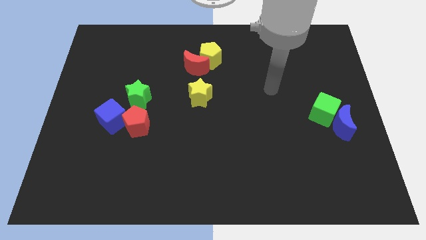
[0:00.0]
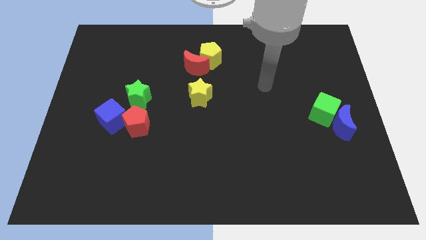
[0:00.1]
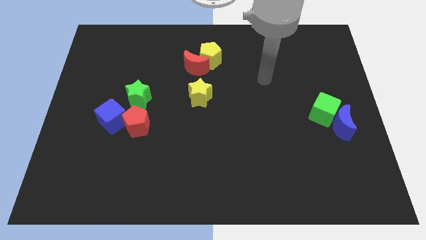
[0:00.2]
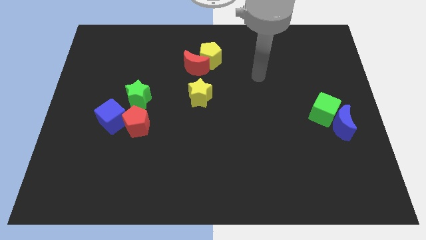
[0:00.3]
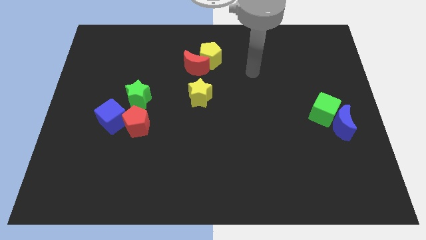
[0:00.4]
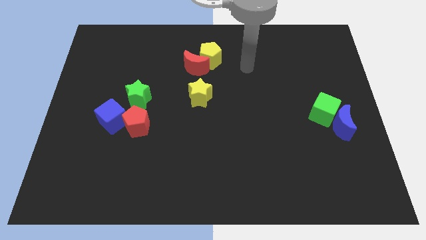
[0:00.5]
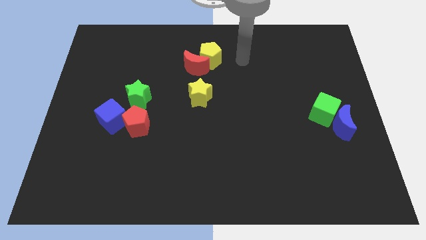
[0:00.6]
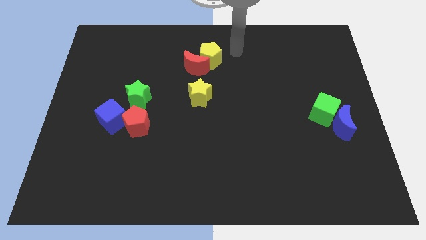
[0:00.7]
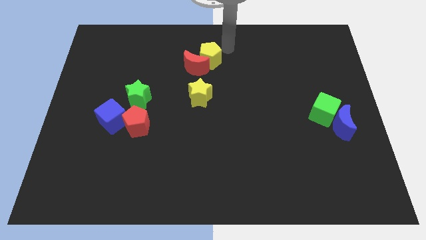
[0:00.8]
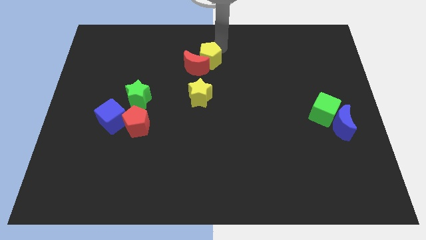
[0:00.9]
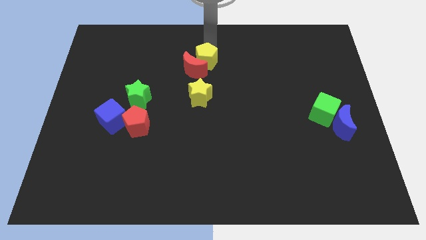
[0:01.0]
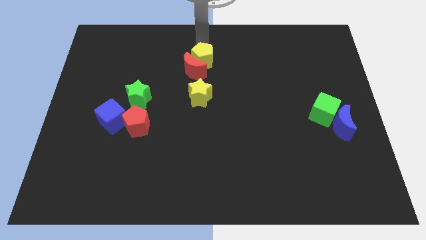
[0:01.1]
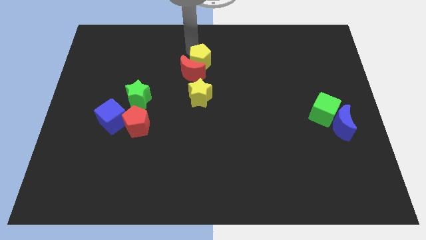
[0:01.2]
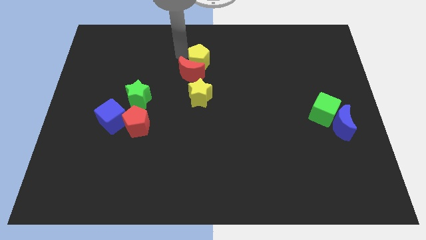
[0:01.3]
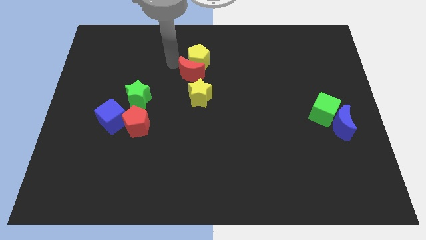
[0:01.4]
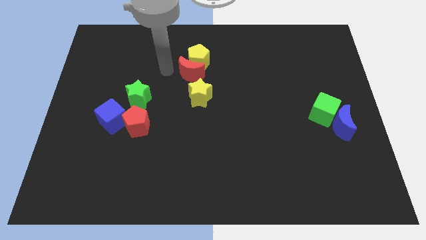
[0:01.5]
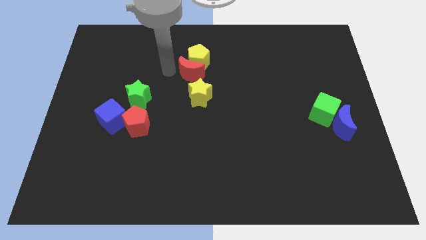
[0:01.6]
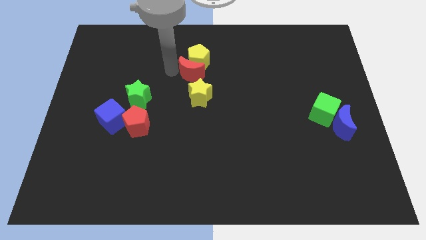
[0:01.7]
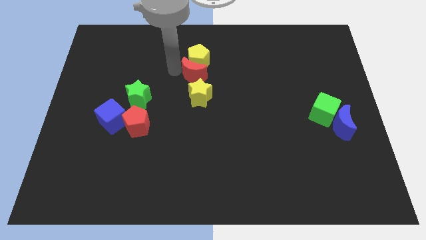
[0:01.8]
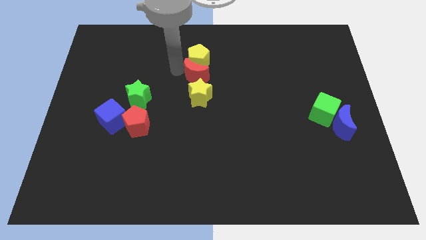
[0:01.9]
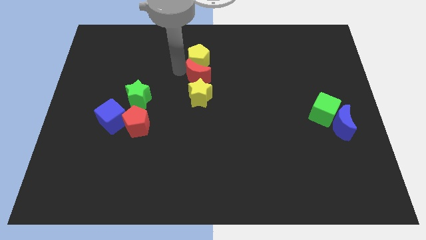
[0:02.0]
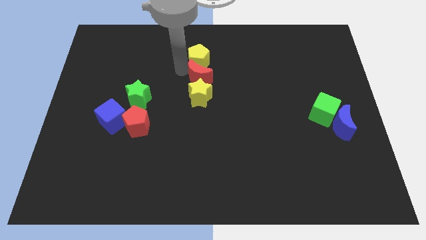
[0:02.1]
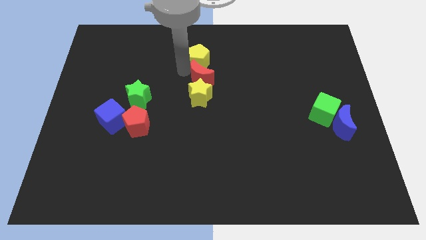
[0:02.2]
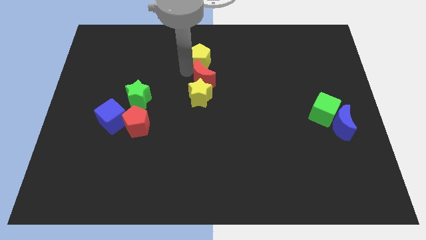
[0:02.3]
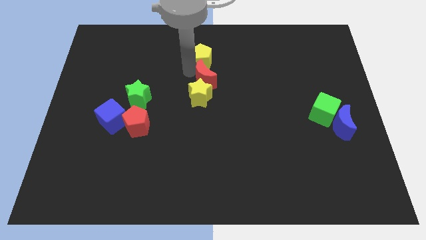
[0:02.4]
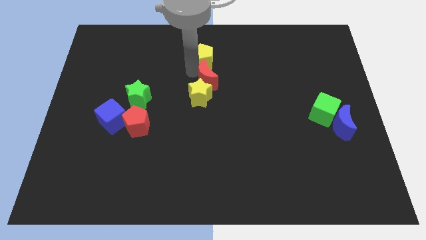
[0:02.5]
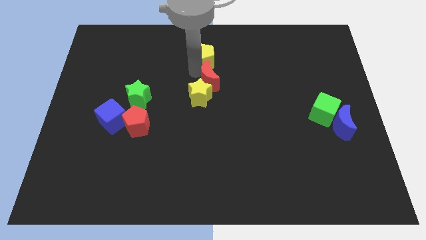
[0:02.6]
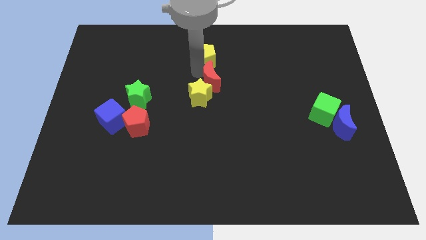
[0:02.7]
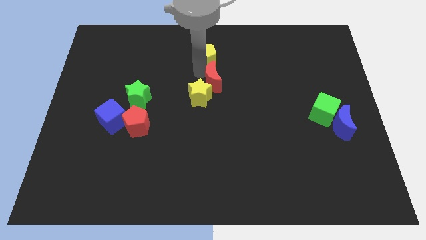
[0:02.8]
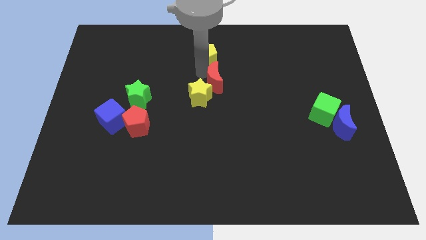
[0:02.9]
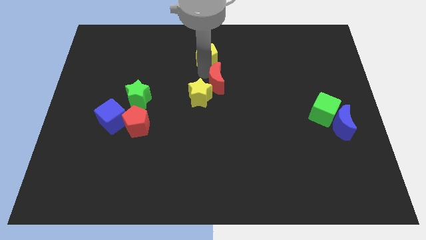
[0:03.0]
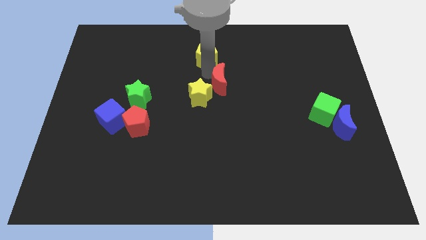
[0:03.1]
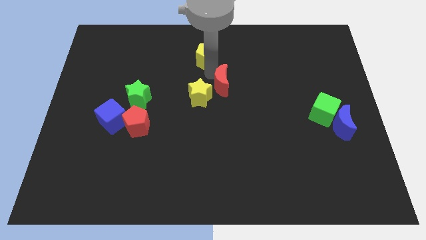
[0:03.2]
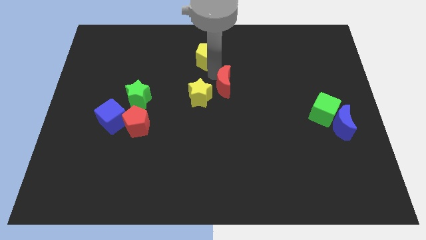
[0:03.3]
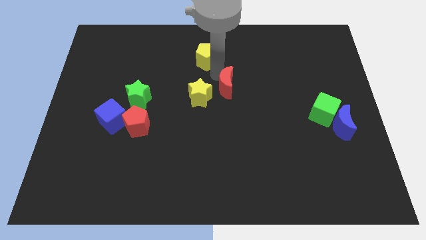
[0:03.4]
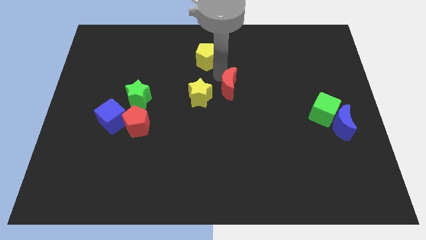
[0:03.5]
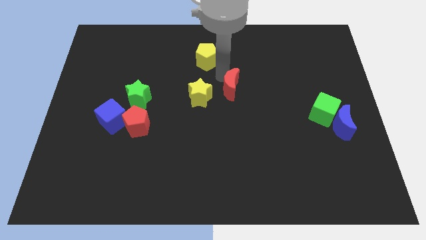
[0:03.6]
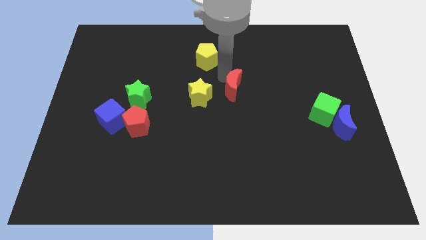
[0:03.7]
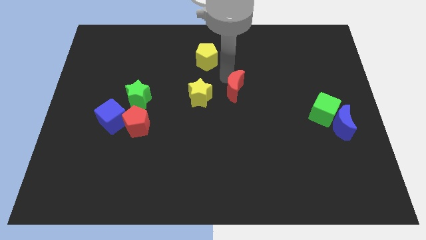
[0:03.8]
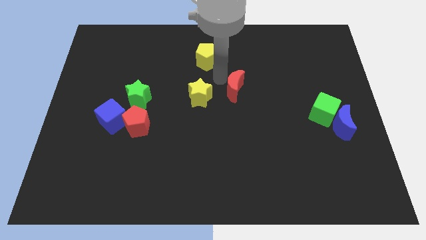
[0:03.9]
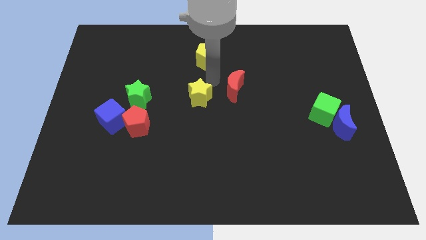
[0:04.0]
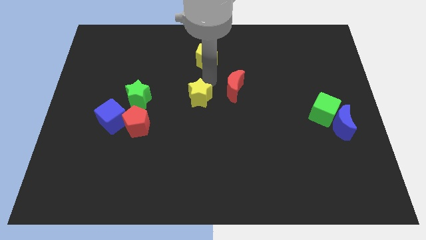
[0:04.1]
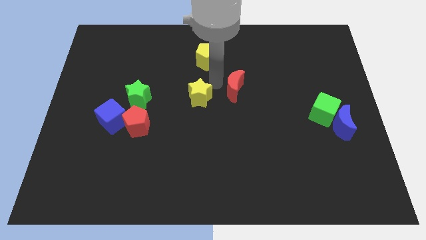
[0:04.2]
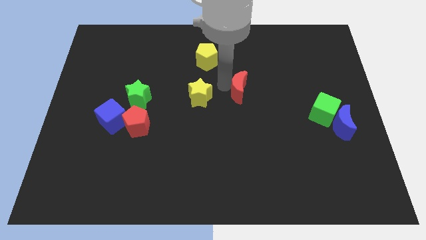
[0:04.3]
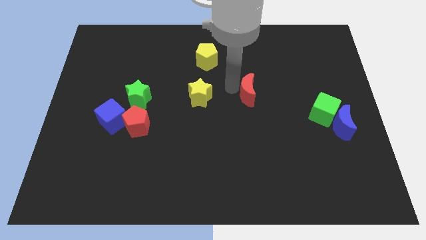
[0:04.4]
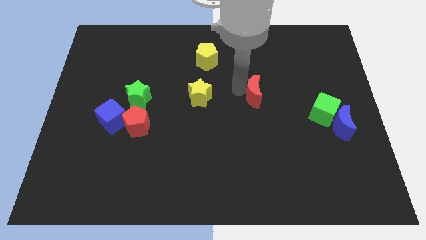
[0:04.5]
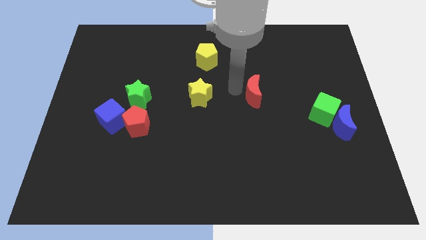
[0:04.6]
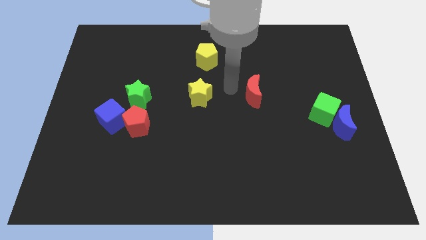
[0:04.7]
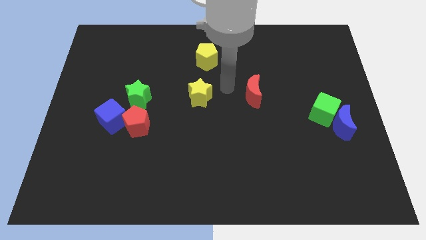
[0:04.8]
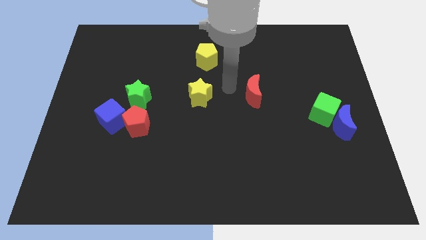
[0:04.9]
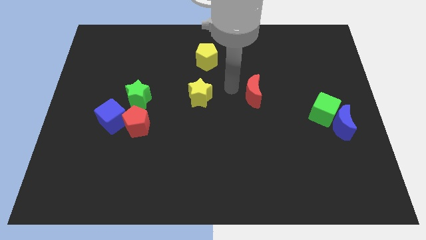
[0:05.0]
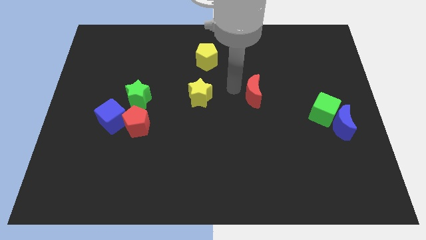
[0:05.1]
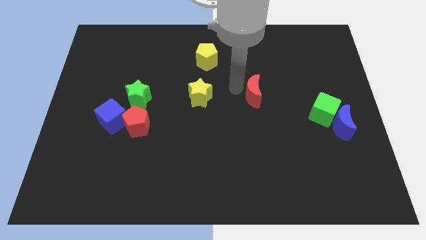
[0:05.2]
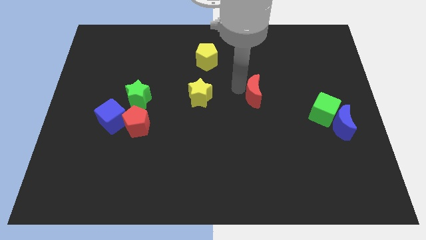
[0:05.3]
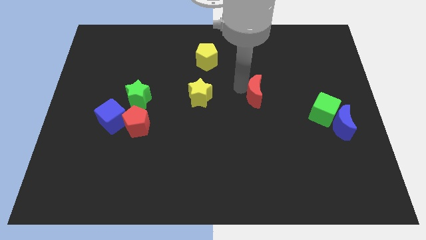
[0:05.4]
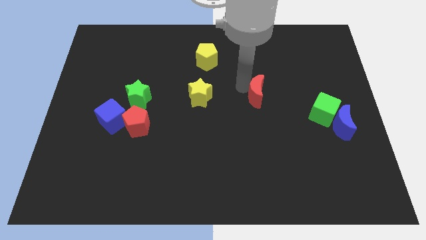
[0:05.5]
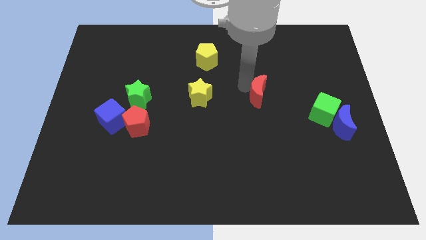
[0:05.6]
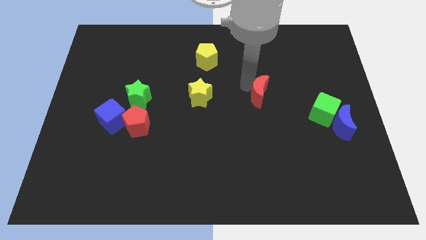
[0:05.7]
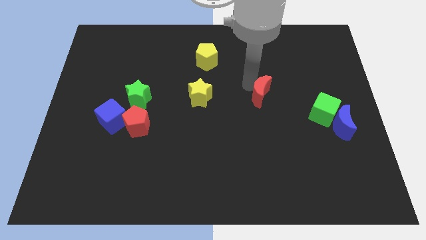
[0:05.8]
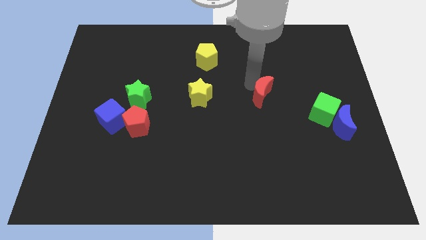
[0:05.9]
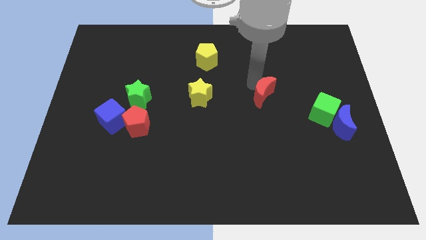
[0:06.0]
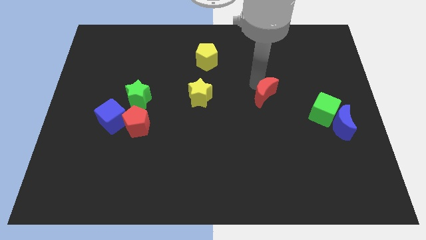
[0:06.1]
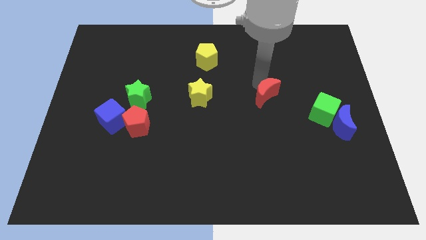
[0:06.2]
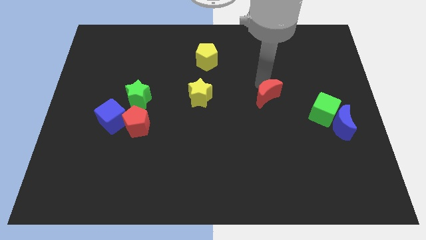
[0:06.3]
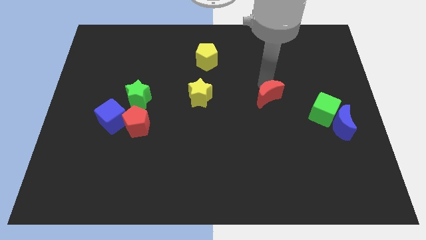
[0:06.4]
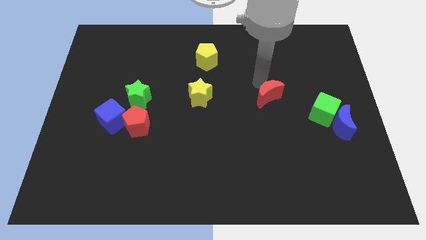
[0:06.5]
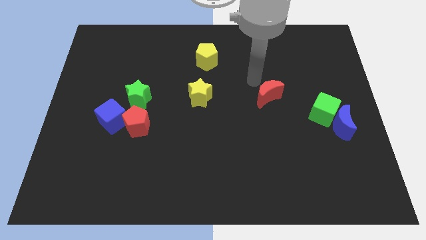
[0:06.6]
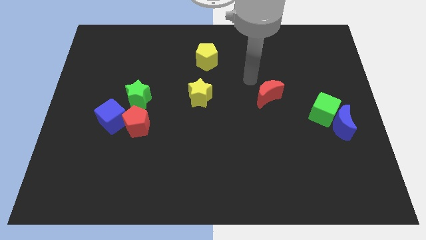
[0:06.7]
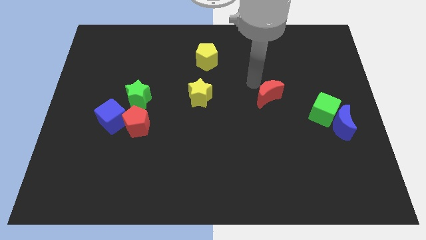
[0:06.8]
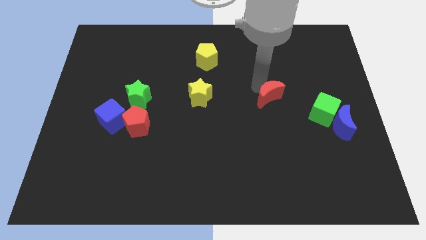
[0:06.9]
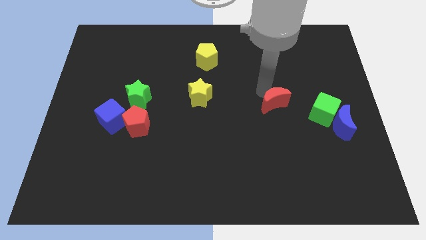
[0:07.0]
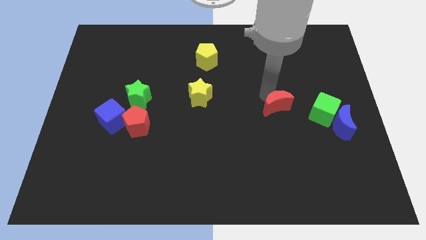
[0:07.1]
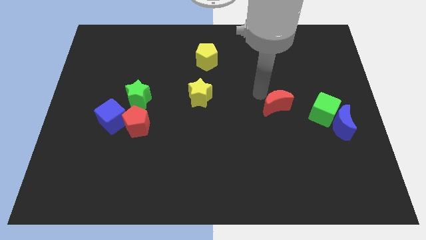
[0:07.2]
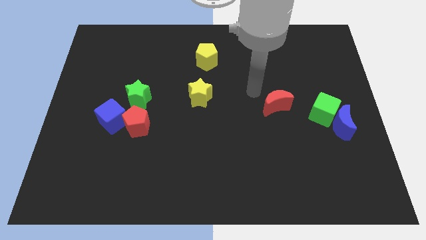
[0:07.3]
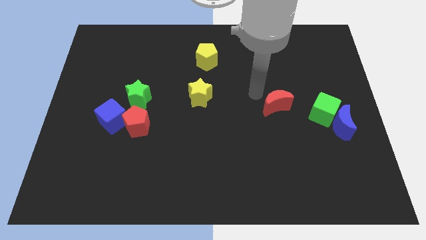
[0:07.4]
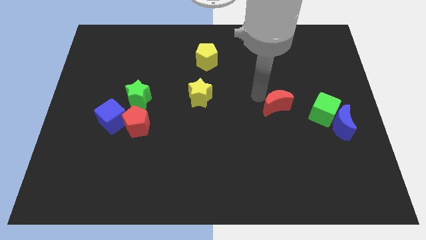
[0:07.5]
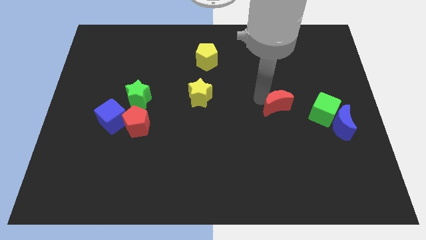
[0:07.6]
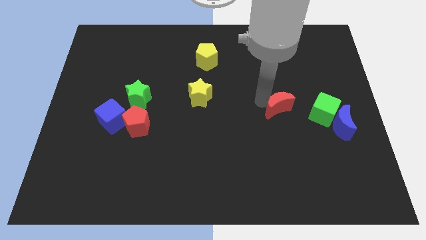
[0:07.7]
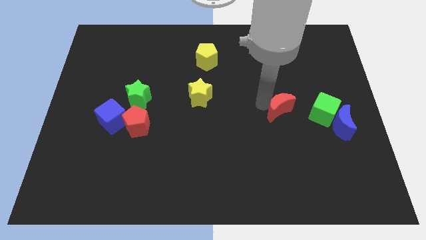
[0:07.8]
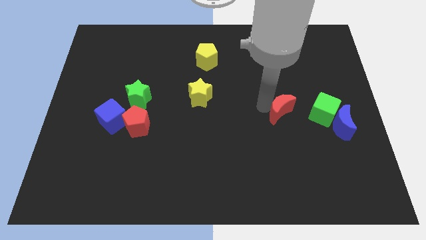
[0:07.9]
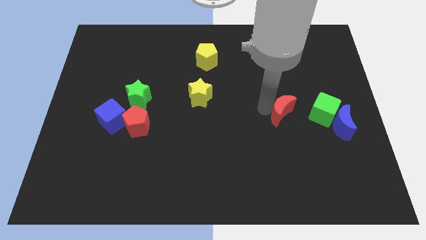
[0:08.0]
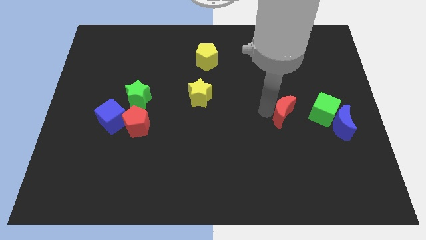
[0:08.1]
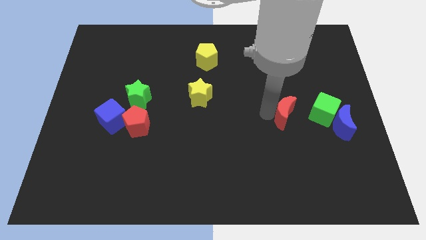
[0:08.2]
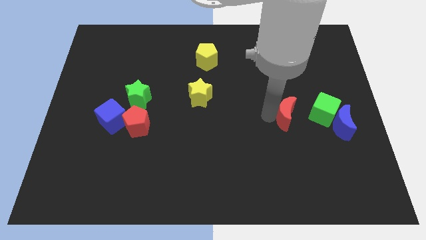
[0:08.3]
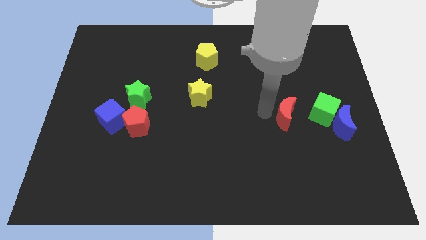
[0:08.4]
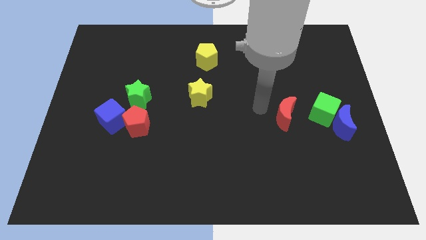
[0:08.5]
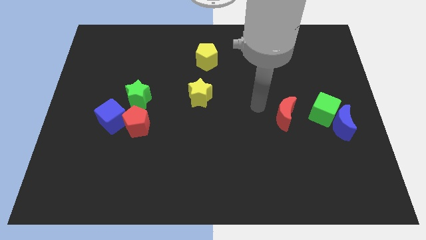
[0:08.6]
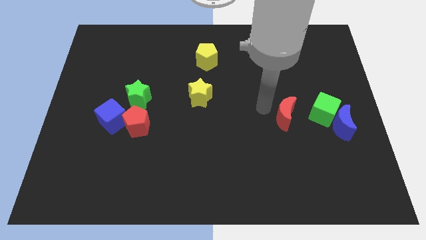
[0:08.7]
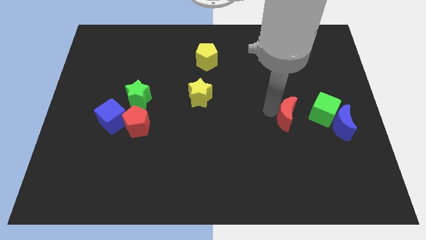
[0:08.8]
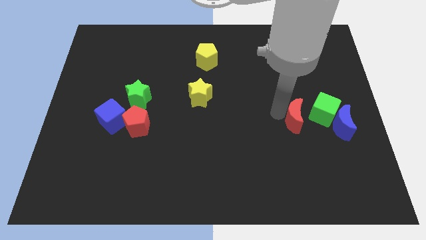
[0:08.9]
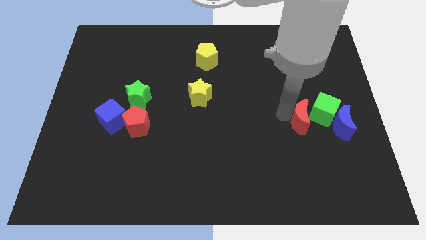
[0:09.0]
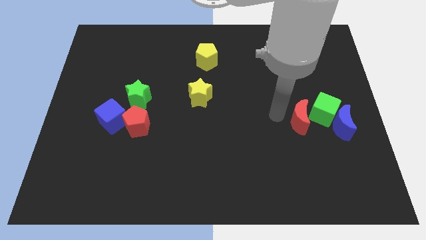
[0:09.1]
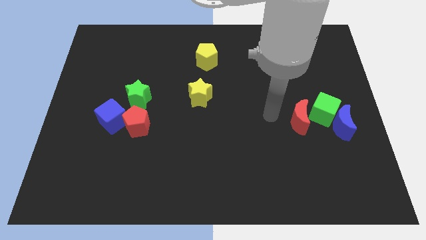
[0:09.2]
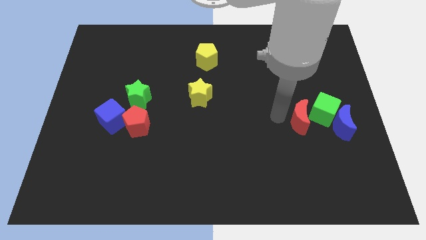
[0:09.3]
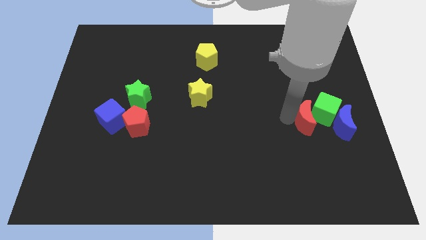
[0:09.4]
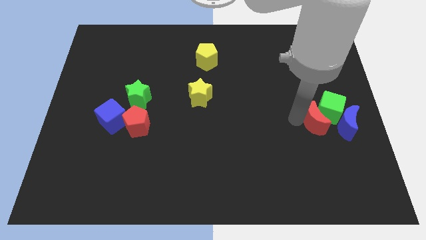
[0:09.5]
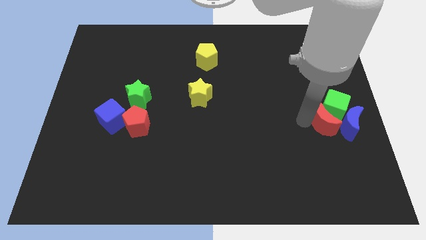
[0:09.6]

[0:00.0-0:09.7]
put the red moon close to the blue moon
